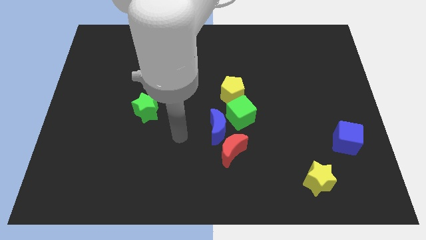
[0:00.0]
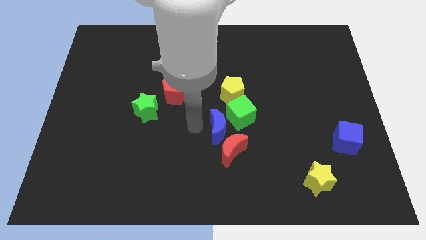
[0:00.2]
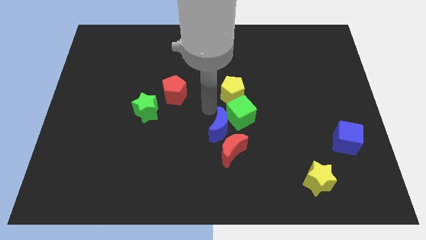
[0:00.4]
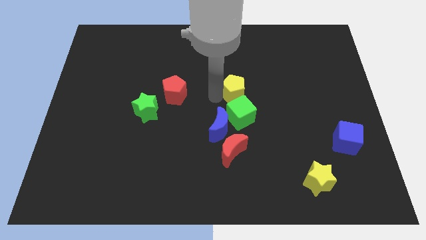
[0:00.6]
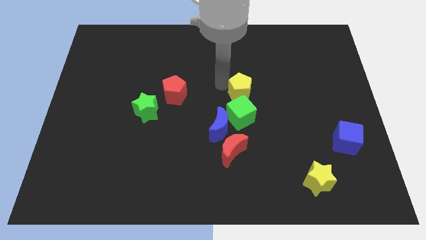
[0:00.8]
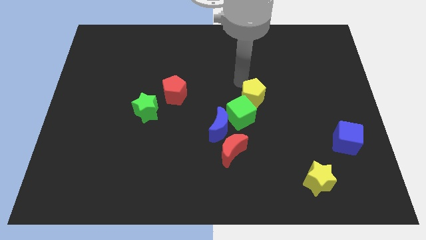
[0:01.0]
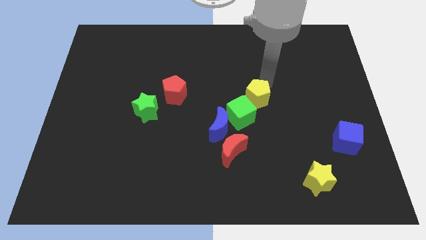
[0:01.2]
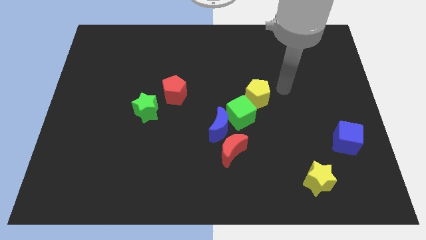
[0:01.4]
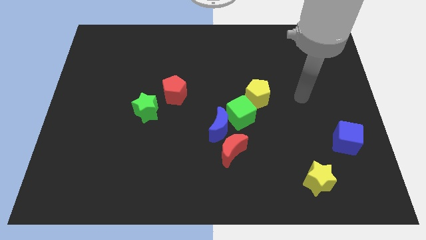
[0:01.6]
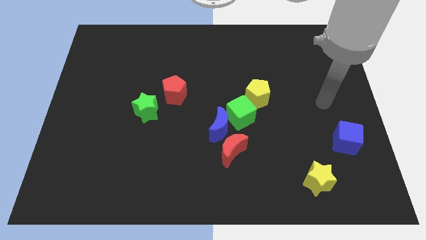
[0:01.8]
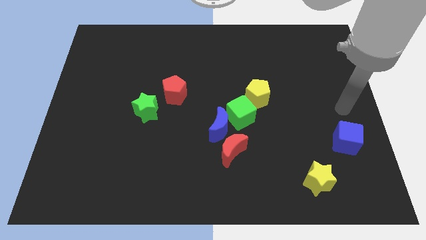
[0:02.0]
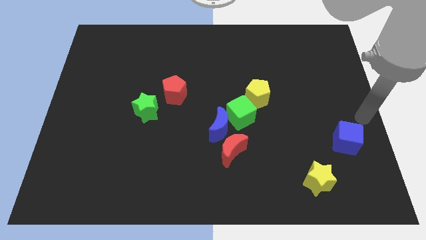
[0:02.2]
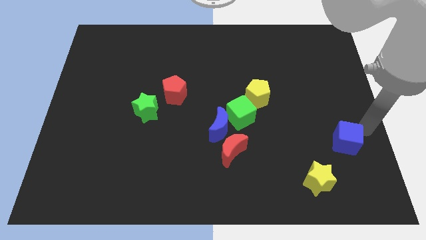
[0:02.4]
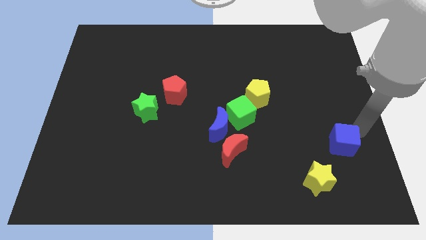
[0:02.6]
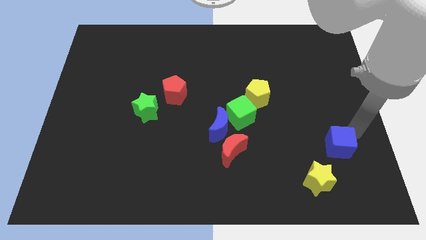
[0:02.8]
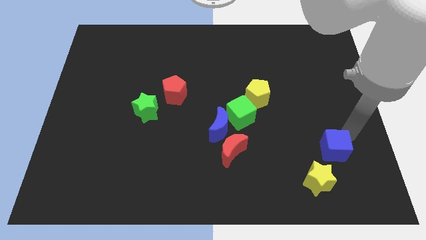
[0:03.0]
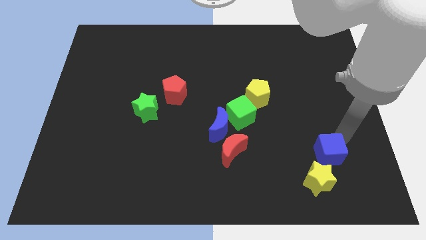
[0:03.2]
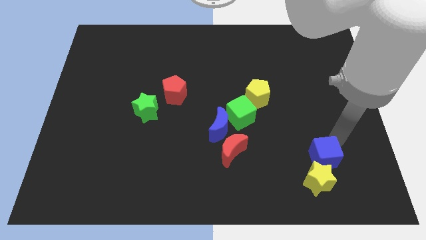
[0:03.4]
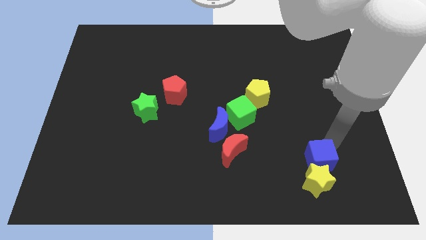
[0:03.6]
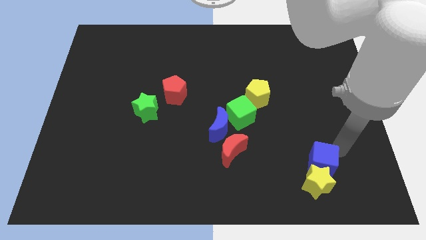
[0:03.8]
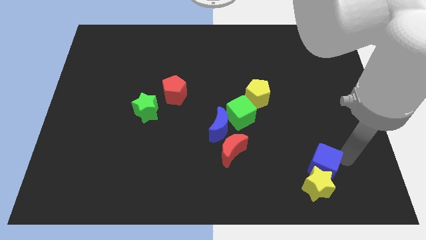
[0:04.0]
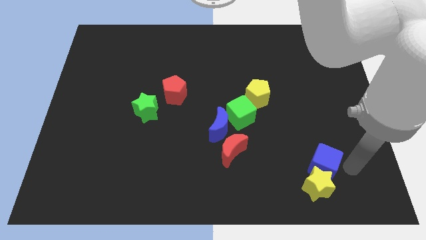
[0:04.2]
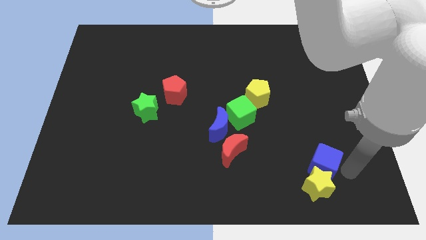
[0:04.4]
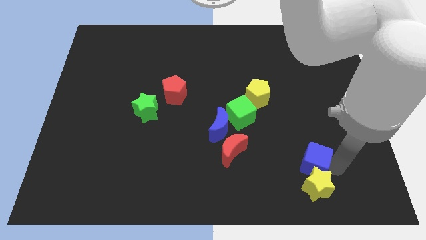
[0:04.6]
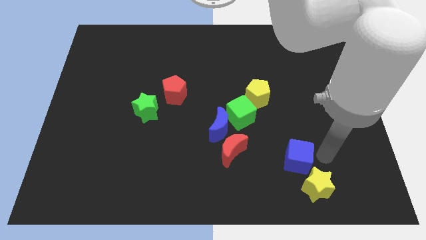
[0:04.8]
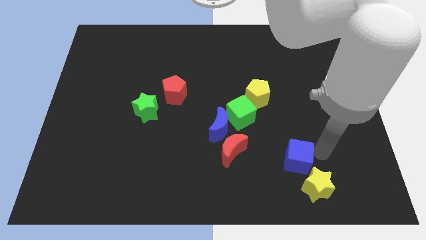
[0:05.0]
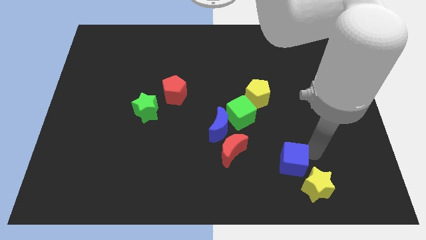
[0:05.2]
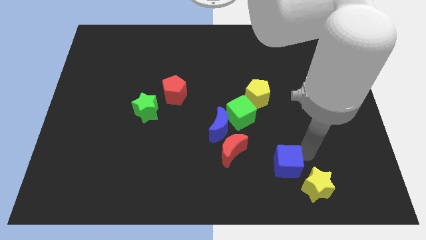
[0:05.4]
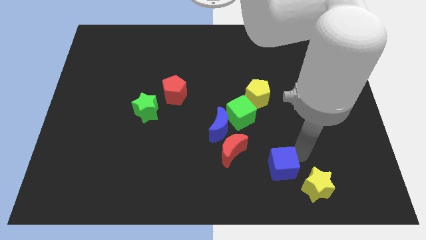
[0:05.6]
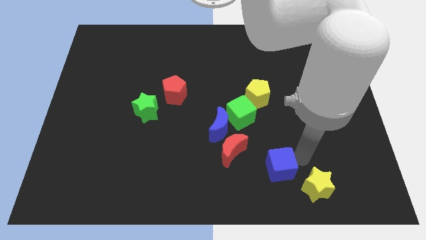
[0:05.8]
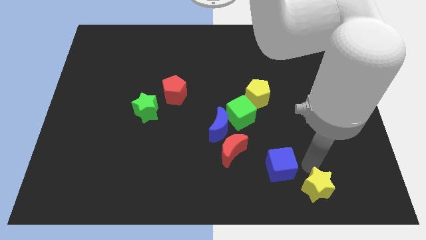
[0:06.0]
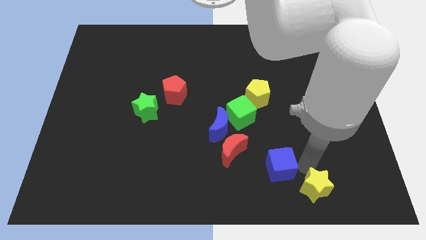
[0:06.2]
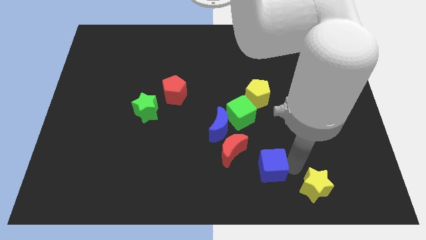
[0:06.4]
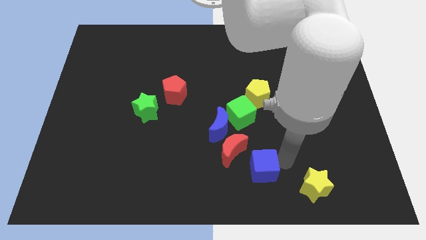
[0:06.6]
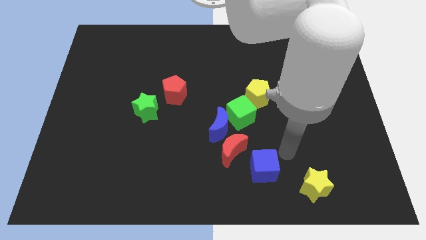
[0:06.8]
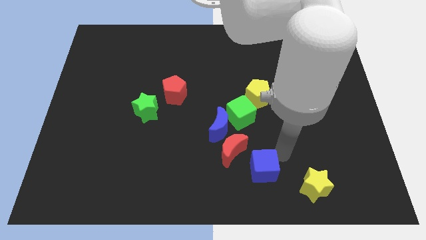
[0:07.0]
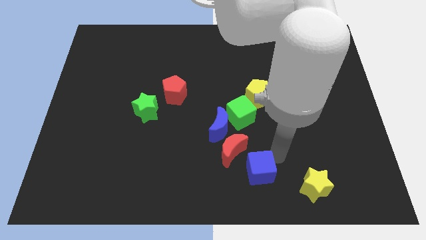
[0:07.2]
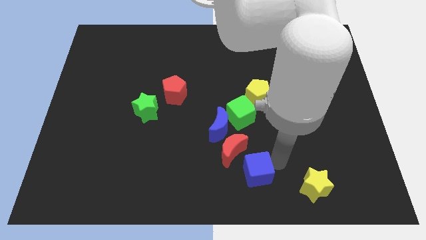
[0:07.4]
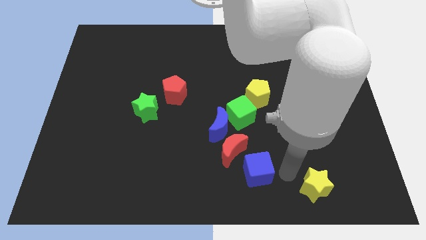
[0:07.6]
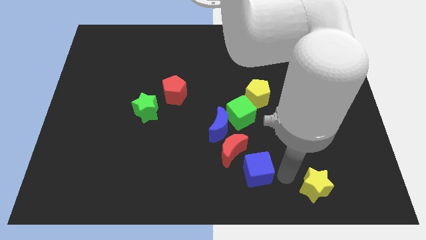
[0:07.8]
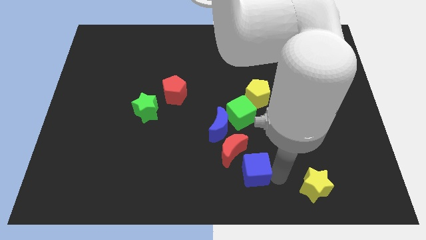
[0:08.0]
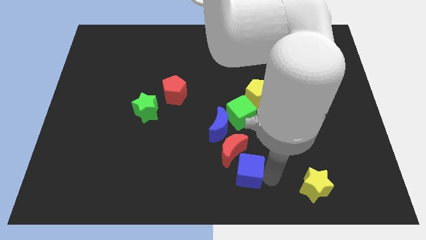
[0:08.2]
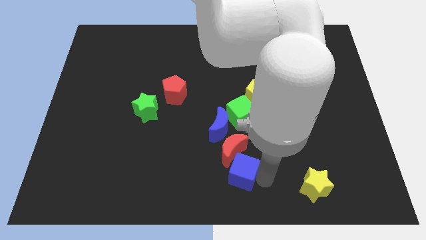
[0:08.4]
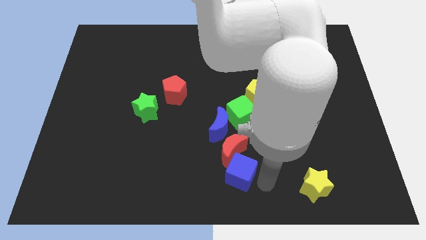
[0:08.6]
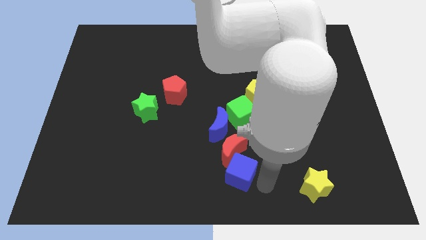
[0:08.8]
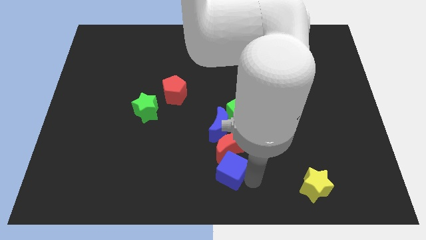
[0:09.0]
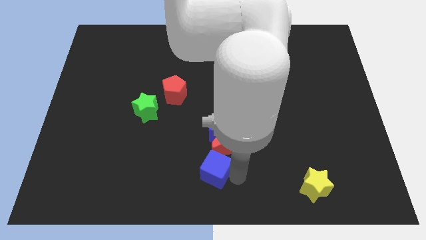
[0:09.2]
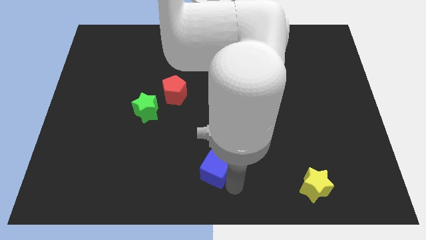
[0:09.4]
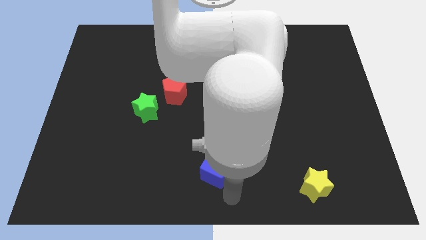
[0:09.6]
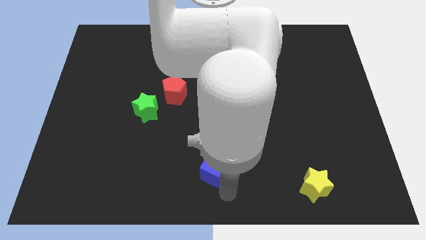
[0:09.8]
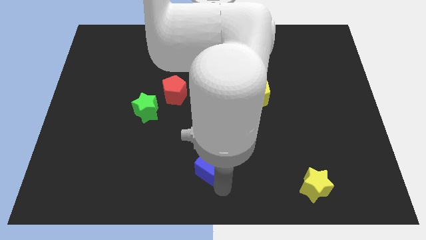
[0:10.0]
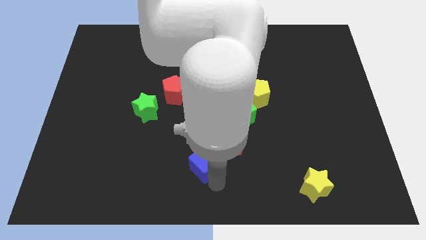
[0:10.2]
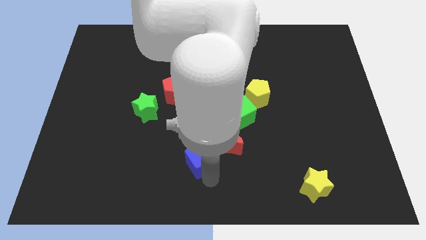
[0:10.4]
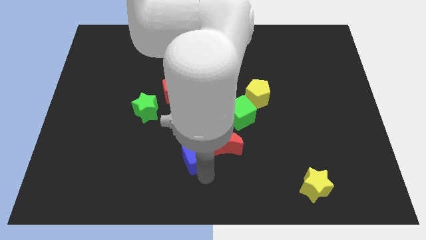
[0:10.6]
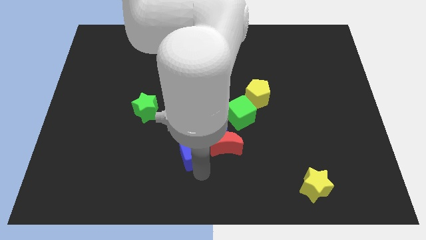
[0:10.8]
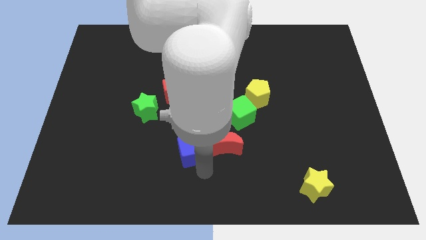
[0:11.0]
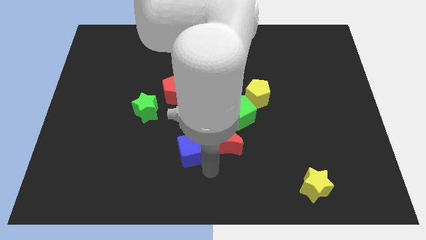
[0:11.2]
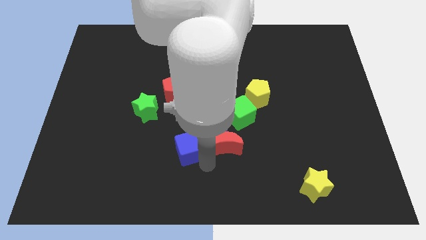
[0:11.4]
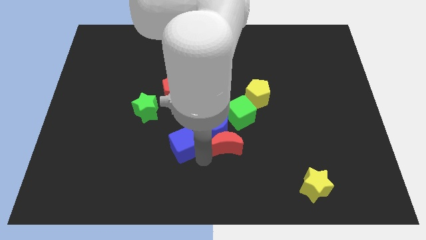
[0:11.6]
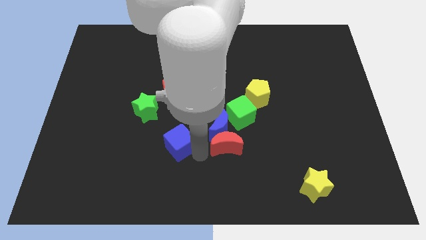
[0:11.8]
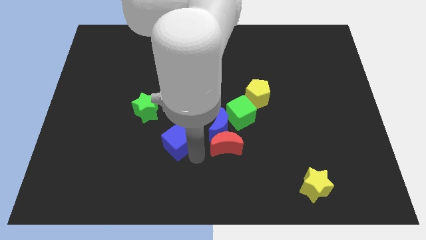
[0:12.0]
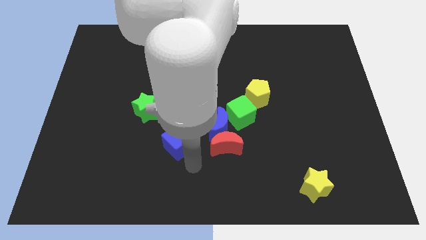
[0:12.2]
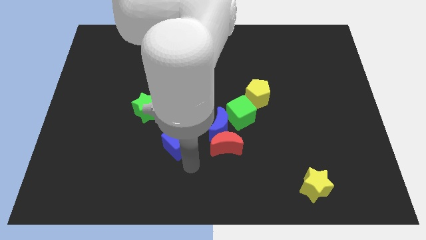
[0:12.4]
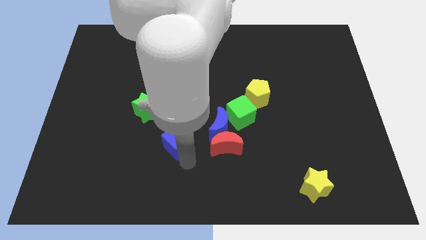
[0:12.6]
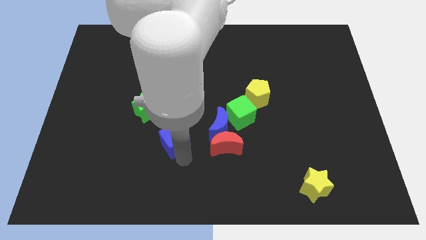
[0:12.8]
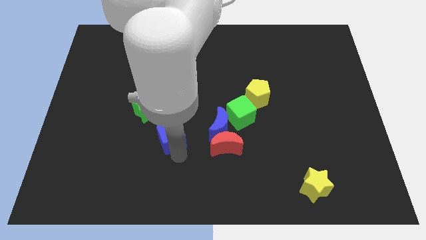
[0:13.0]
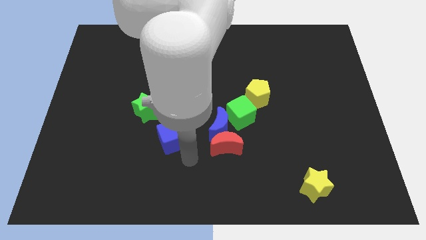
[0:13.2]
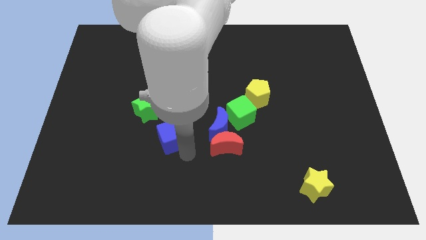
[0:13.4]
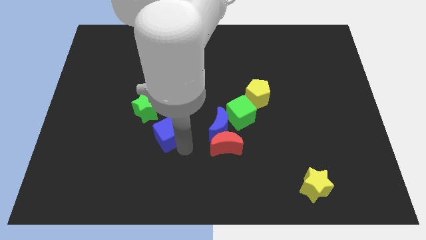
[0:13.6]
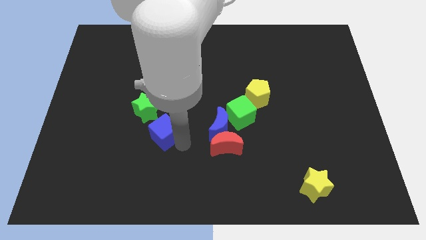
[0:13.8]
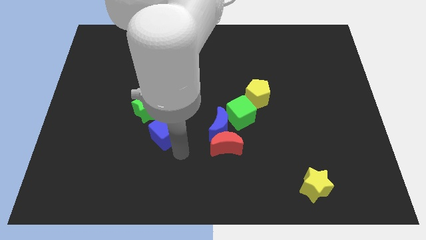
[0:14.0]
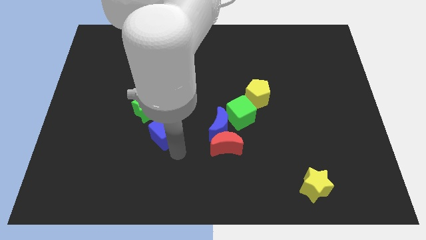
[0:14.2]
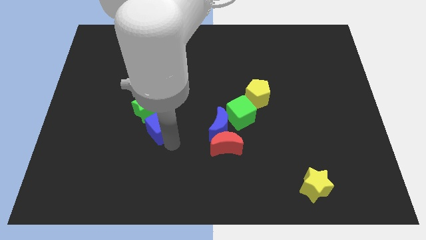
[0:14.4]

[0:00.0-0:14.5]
push the blue cube next to the green star

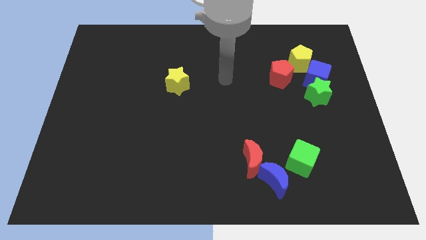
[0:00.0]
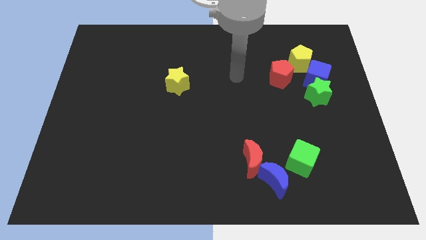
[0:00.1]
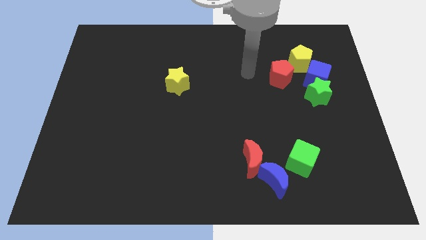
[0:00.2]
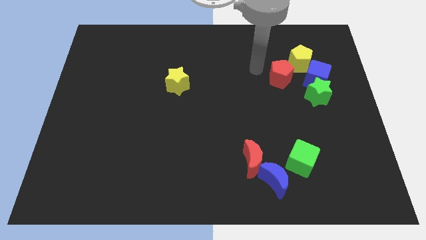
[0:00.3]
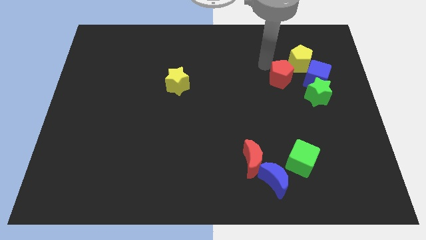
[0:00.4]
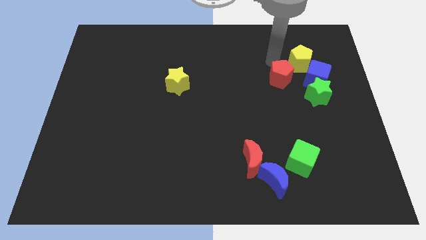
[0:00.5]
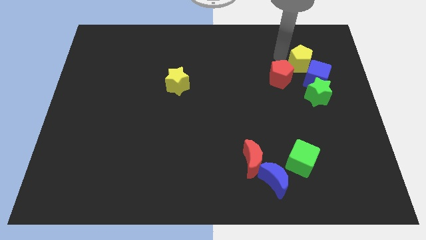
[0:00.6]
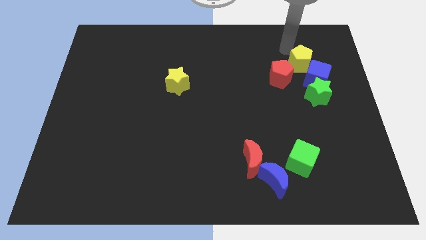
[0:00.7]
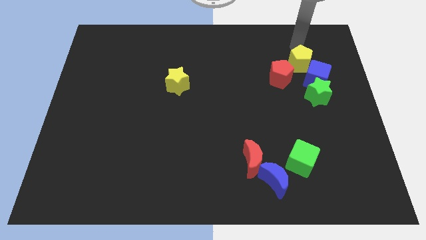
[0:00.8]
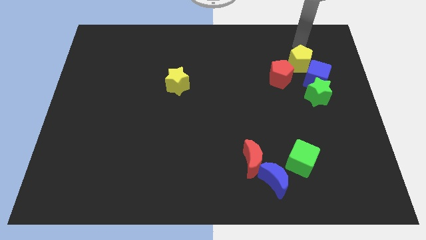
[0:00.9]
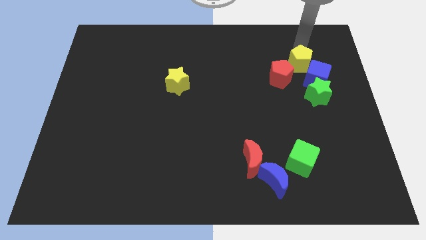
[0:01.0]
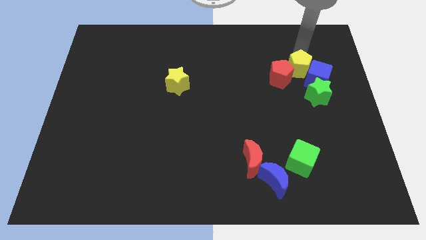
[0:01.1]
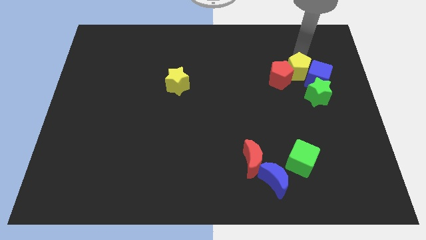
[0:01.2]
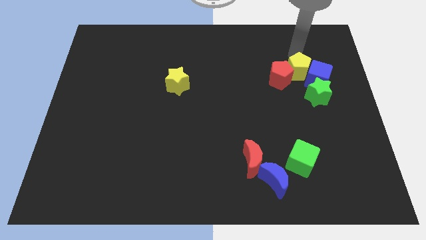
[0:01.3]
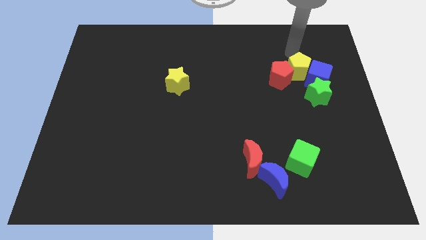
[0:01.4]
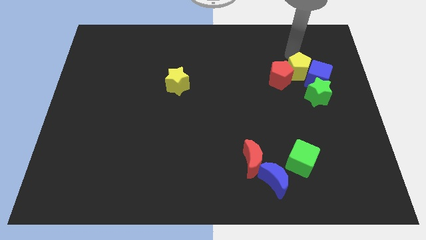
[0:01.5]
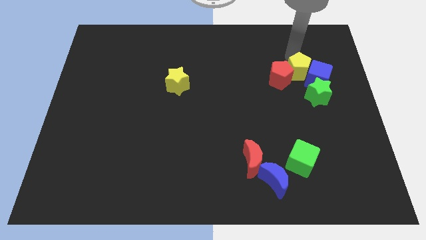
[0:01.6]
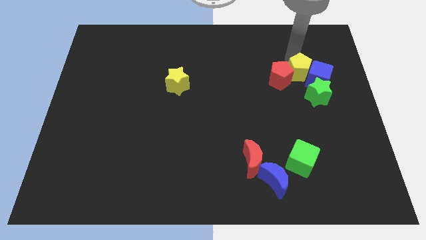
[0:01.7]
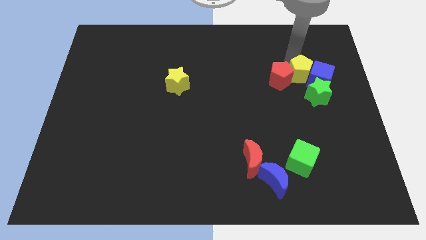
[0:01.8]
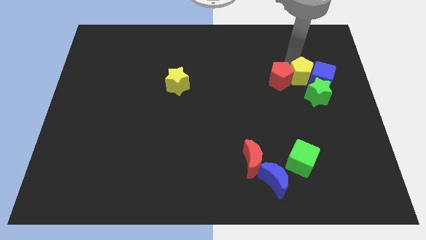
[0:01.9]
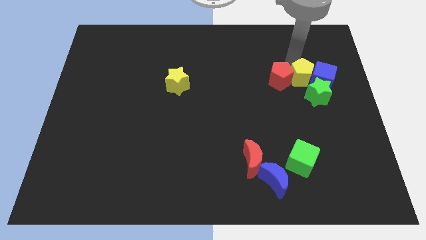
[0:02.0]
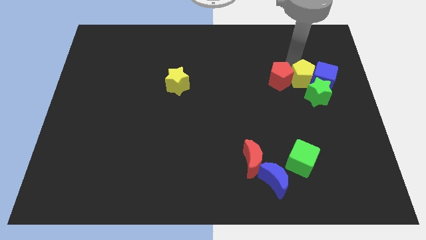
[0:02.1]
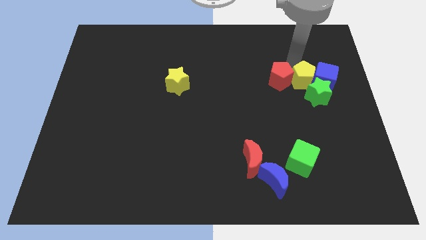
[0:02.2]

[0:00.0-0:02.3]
move the yellow pentagon to the green star
